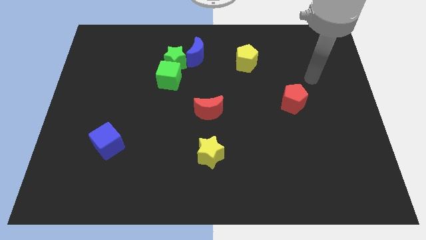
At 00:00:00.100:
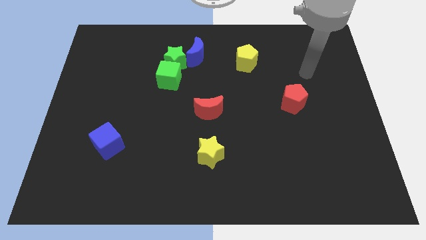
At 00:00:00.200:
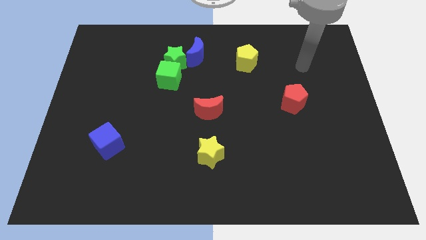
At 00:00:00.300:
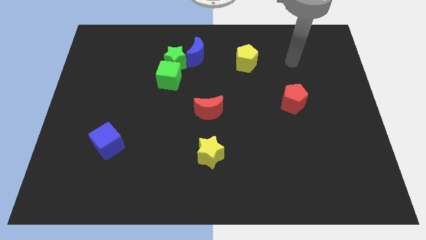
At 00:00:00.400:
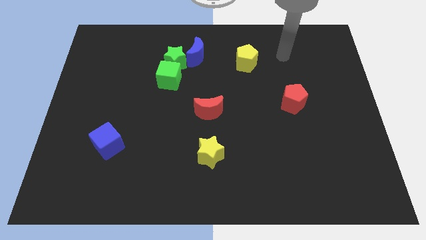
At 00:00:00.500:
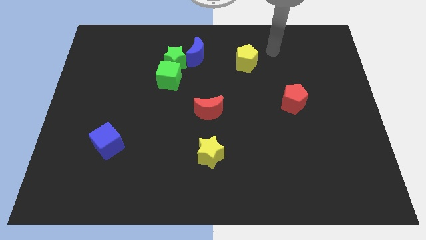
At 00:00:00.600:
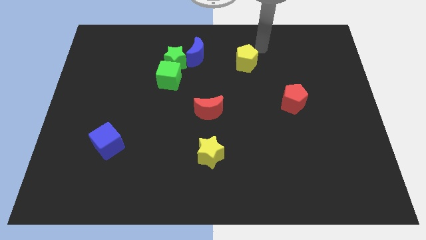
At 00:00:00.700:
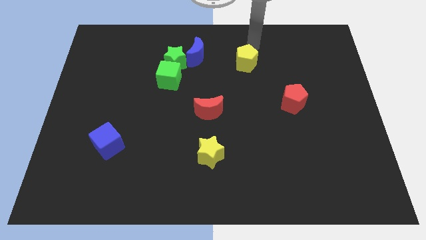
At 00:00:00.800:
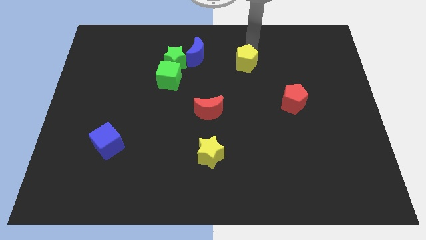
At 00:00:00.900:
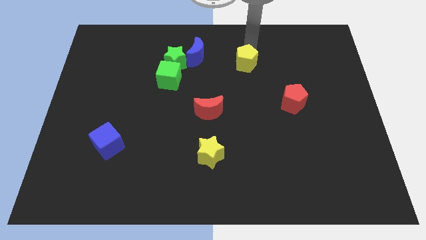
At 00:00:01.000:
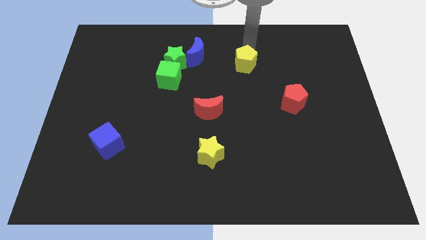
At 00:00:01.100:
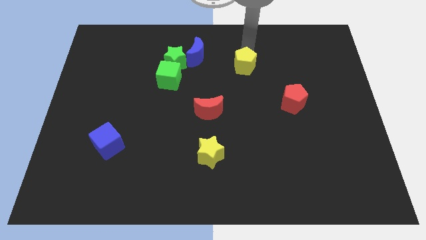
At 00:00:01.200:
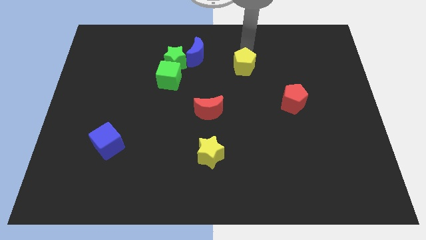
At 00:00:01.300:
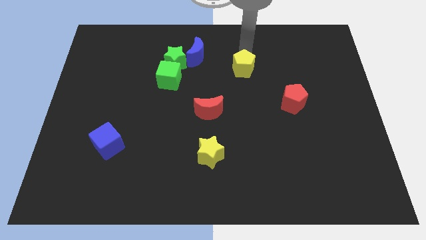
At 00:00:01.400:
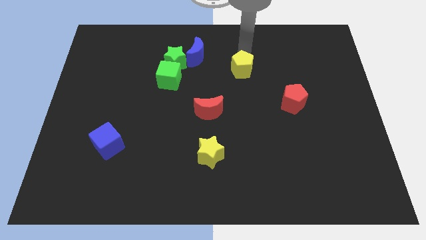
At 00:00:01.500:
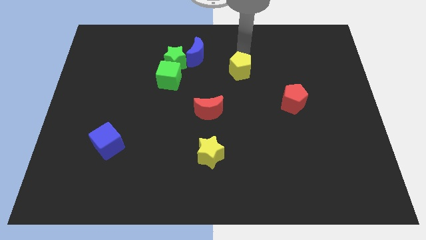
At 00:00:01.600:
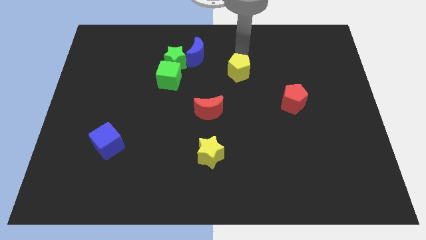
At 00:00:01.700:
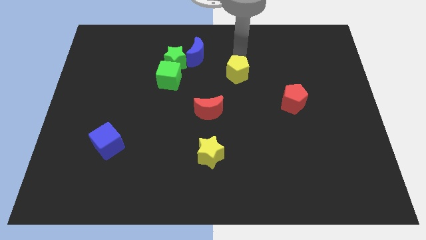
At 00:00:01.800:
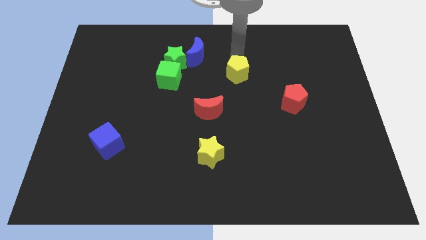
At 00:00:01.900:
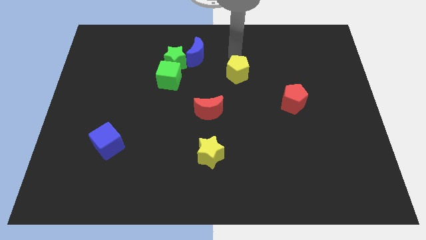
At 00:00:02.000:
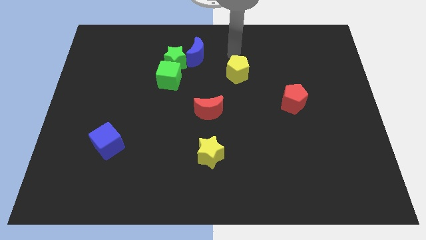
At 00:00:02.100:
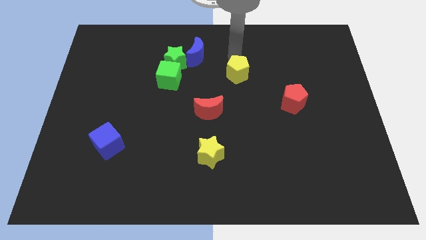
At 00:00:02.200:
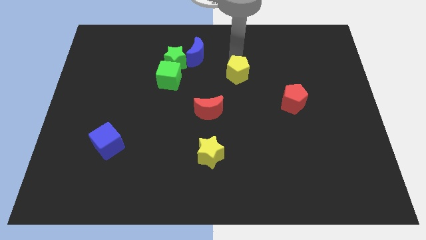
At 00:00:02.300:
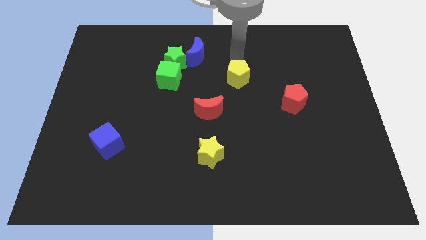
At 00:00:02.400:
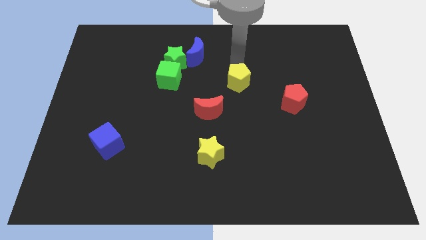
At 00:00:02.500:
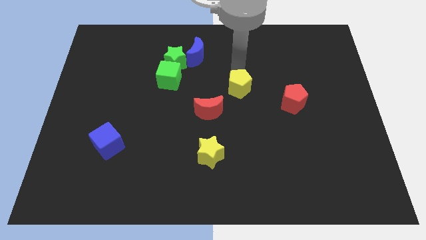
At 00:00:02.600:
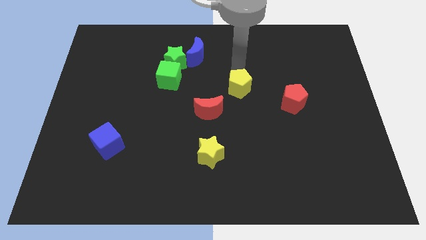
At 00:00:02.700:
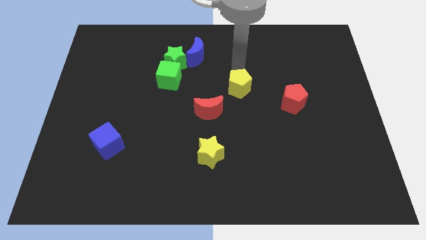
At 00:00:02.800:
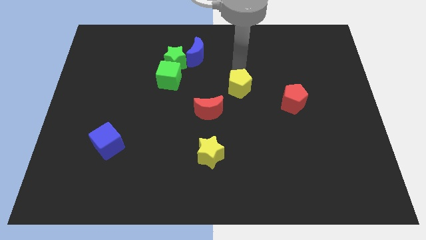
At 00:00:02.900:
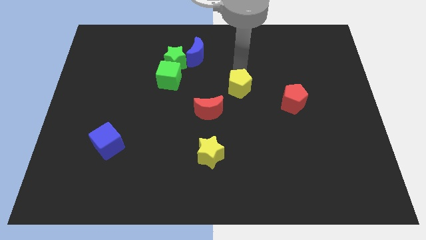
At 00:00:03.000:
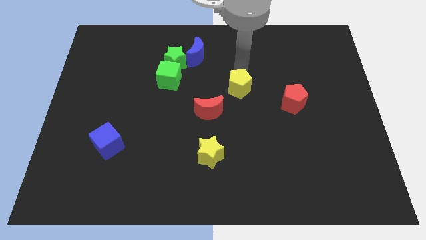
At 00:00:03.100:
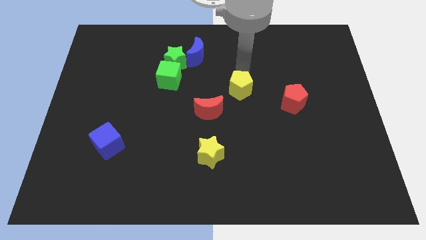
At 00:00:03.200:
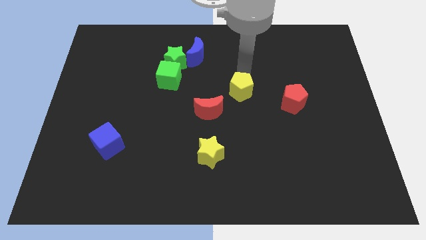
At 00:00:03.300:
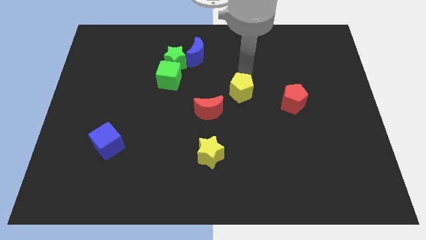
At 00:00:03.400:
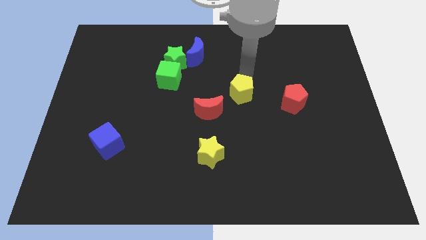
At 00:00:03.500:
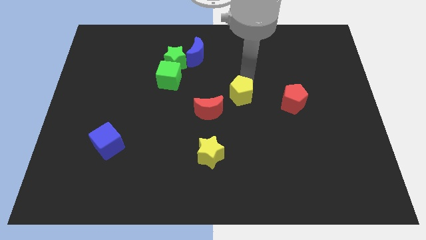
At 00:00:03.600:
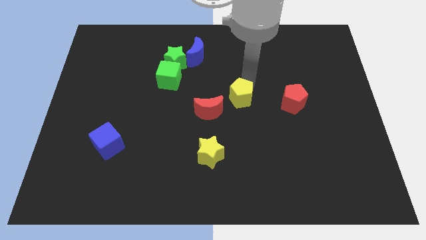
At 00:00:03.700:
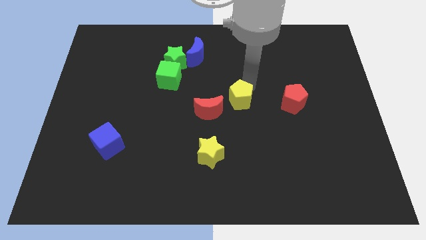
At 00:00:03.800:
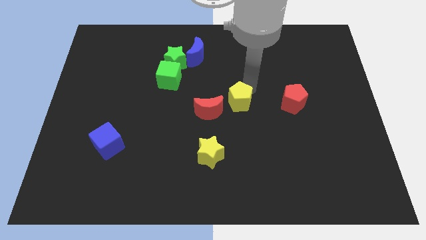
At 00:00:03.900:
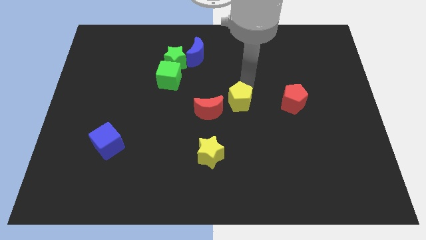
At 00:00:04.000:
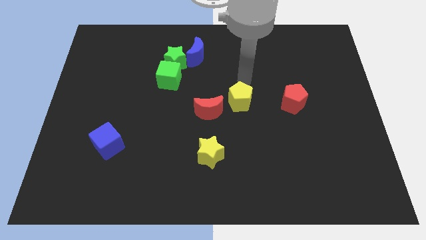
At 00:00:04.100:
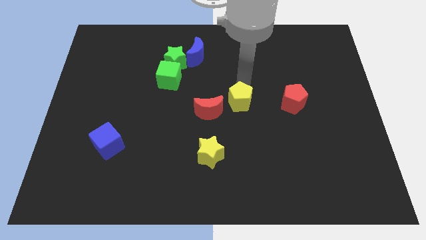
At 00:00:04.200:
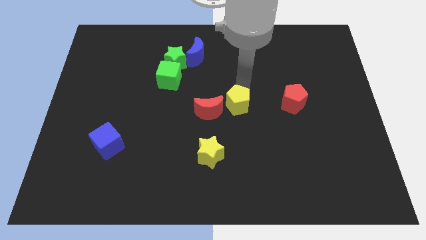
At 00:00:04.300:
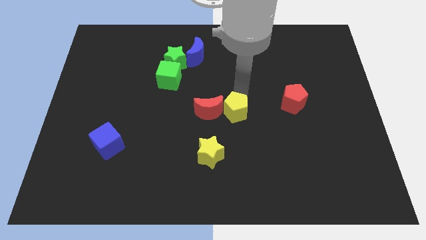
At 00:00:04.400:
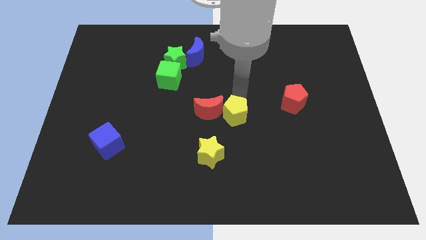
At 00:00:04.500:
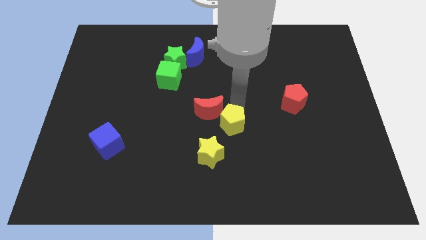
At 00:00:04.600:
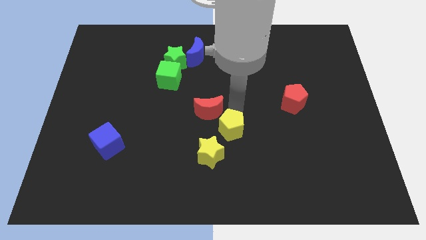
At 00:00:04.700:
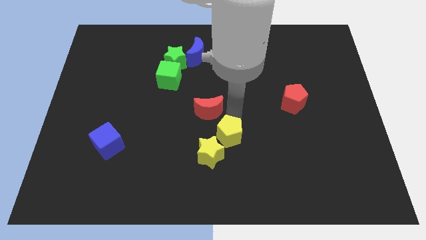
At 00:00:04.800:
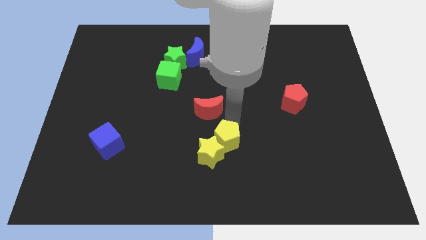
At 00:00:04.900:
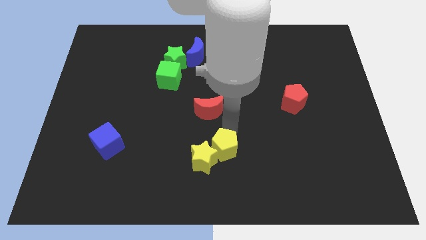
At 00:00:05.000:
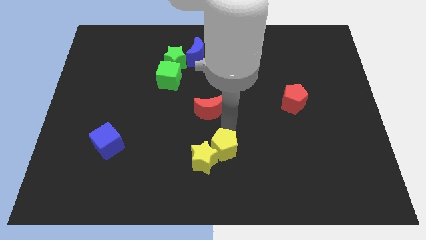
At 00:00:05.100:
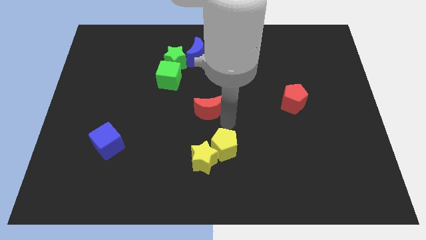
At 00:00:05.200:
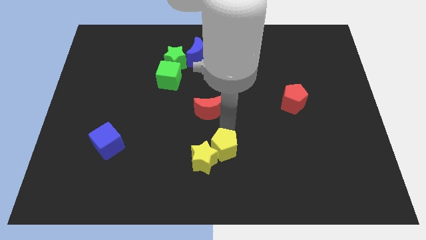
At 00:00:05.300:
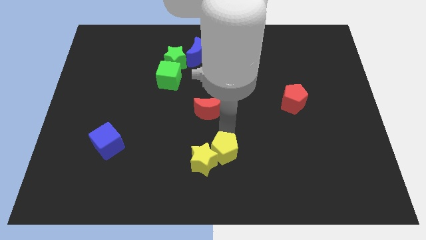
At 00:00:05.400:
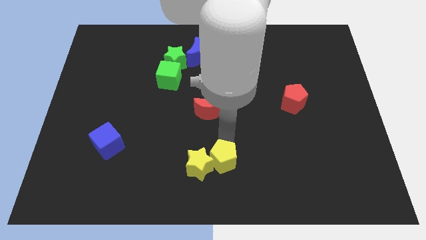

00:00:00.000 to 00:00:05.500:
slide the yellow pentagon to the bottom

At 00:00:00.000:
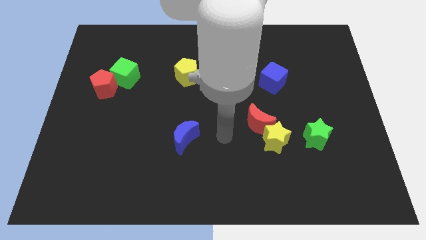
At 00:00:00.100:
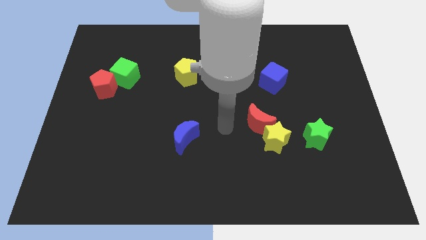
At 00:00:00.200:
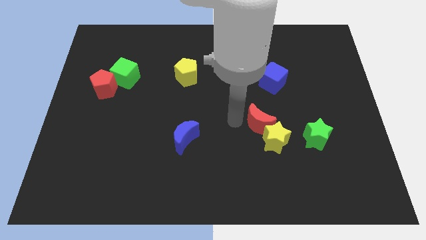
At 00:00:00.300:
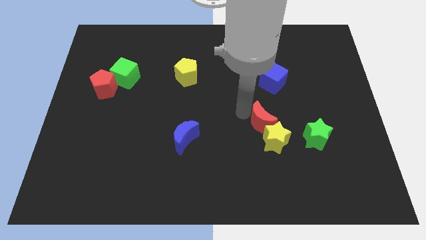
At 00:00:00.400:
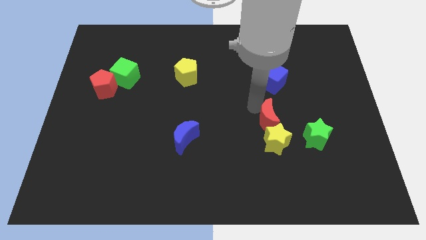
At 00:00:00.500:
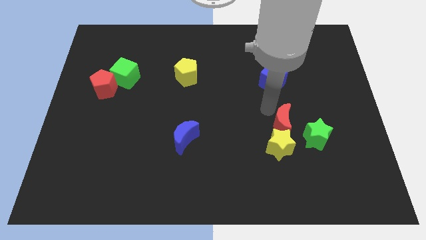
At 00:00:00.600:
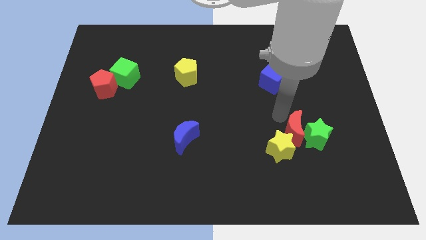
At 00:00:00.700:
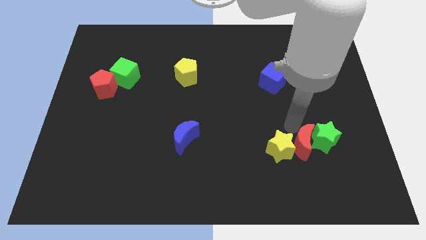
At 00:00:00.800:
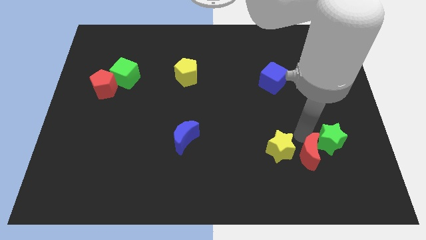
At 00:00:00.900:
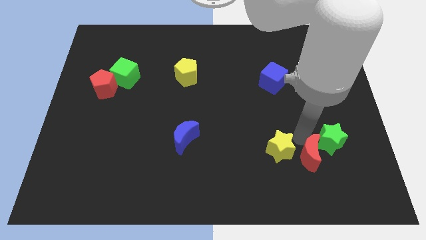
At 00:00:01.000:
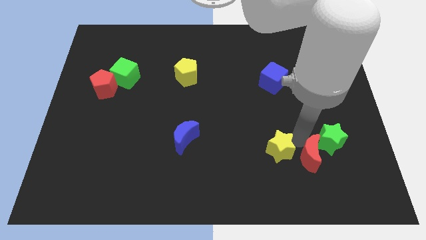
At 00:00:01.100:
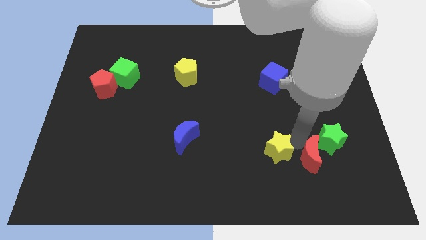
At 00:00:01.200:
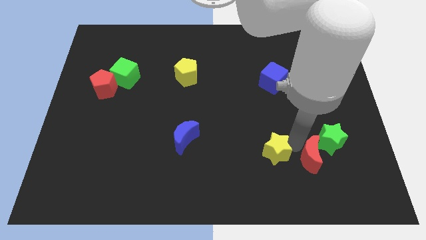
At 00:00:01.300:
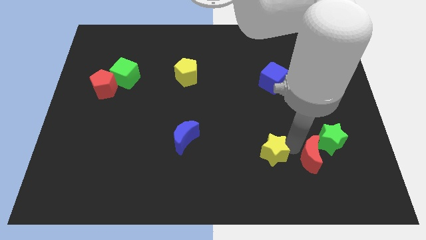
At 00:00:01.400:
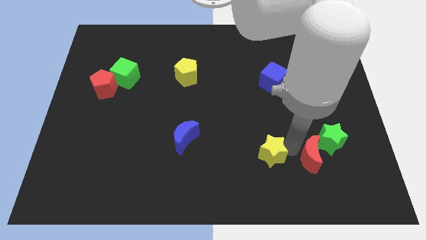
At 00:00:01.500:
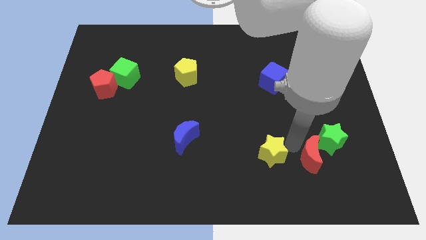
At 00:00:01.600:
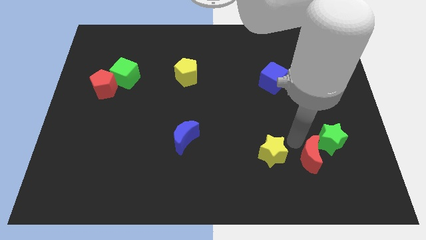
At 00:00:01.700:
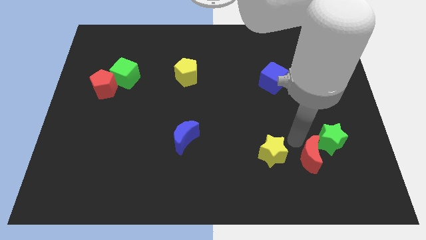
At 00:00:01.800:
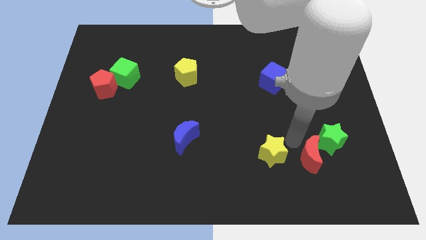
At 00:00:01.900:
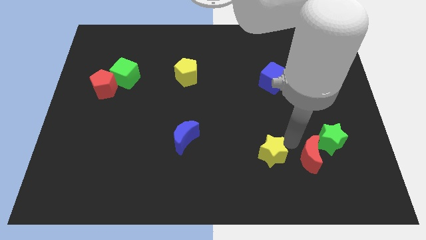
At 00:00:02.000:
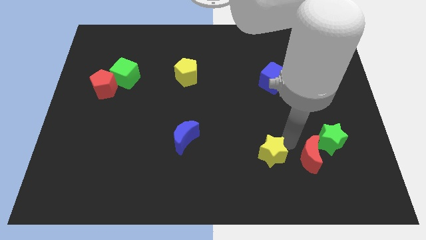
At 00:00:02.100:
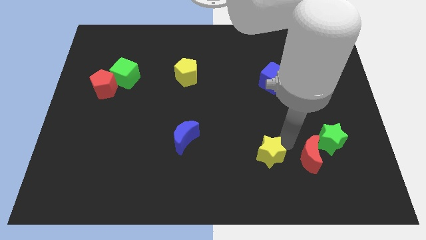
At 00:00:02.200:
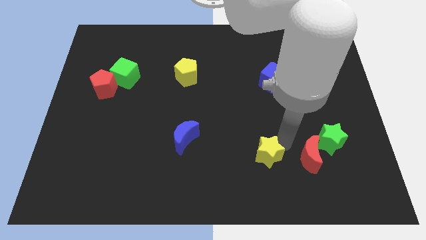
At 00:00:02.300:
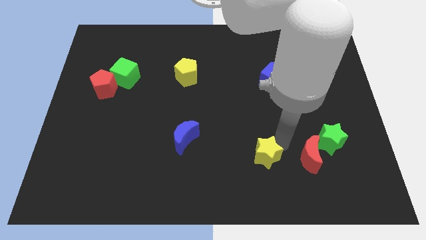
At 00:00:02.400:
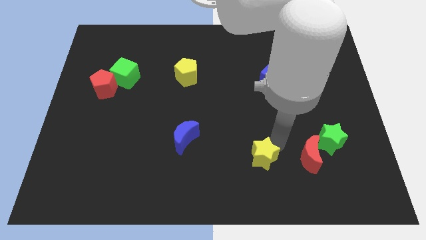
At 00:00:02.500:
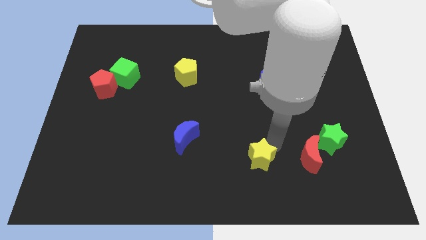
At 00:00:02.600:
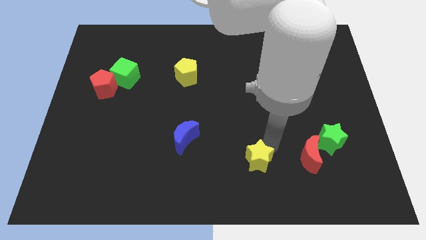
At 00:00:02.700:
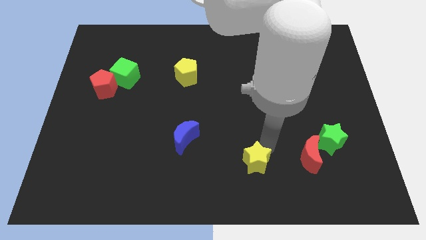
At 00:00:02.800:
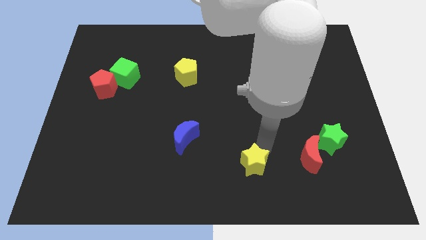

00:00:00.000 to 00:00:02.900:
move the yellow star to the bottom side
